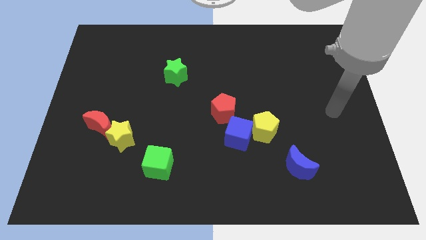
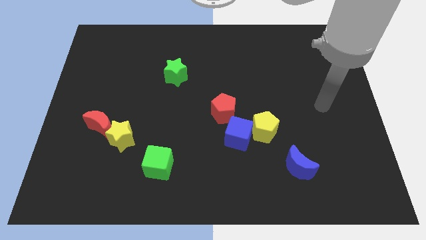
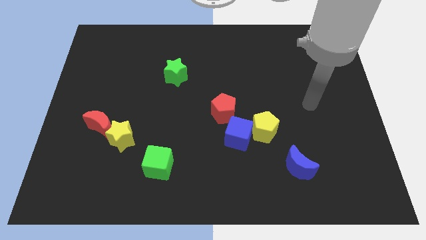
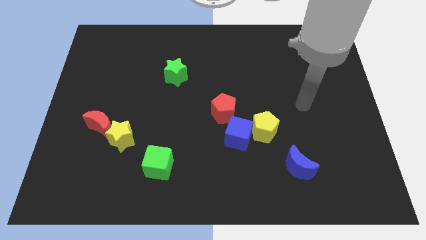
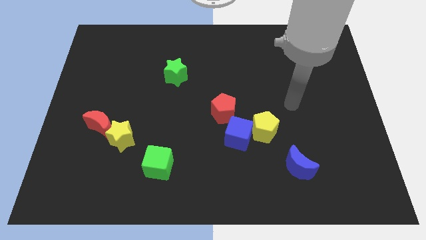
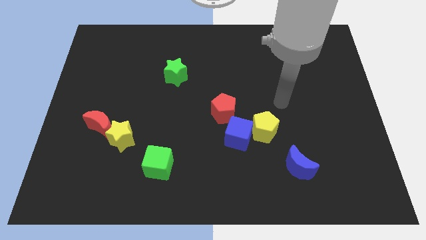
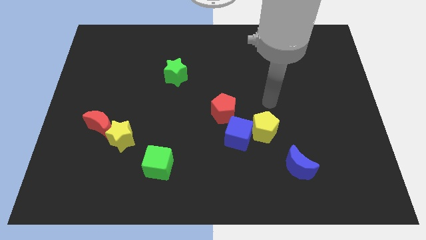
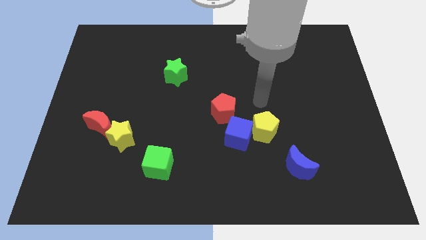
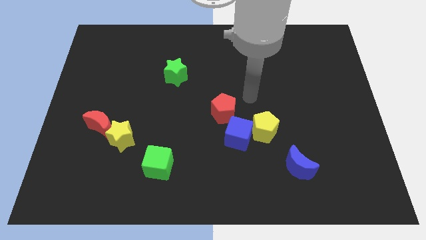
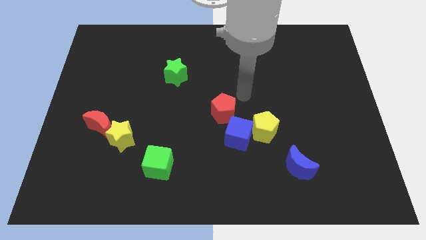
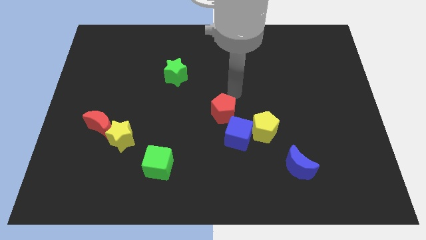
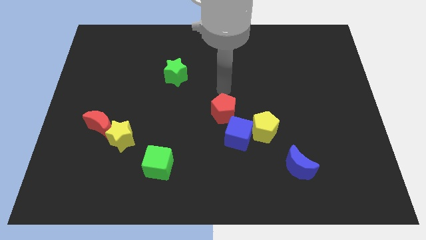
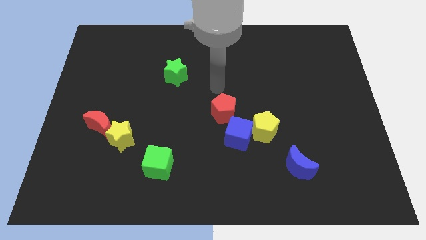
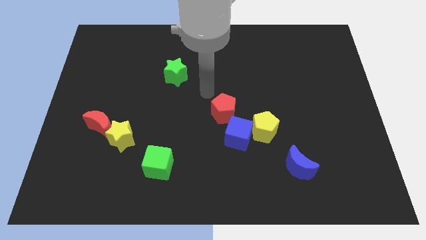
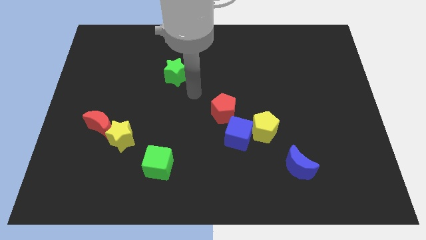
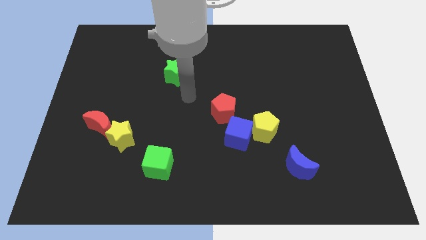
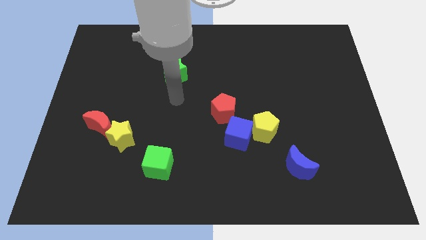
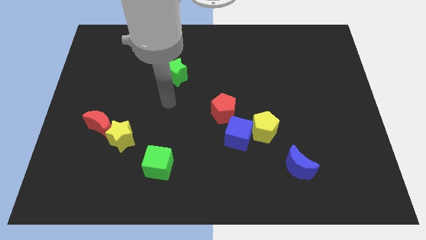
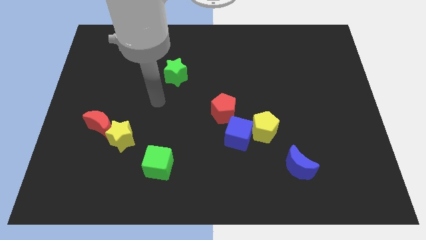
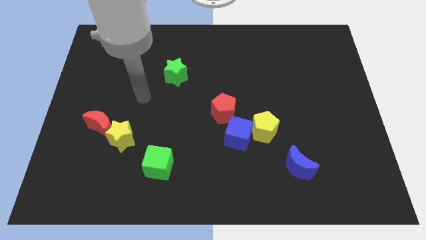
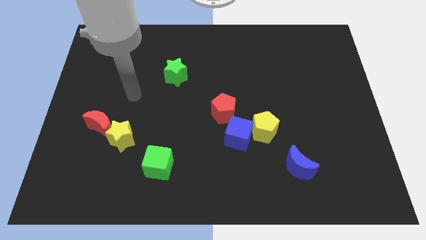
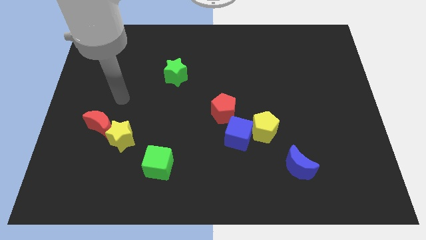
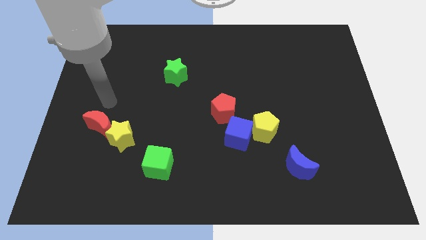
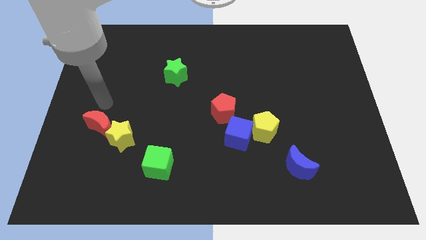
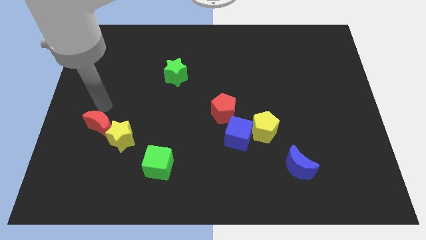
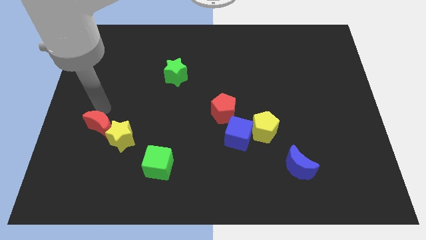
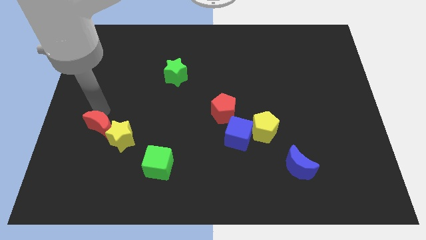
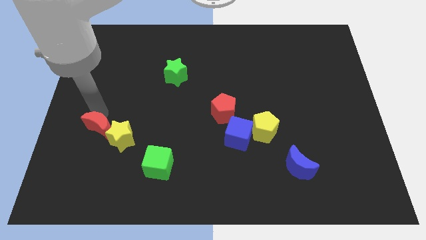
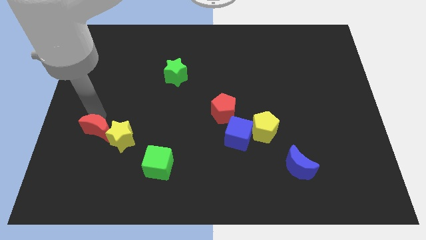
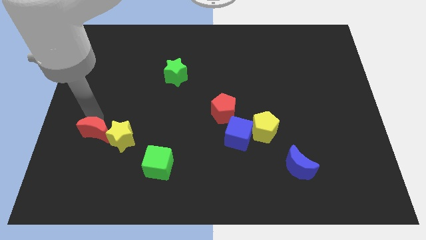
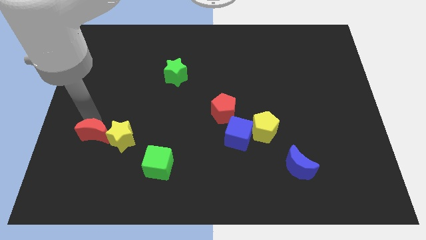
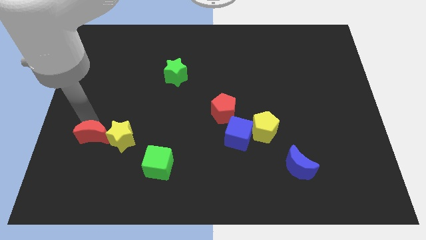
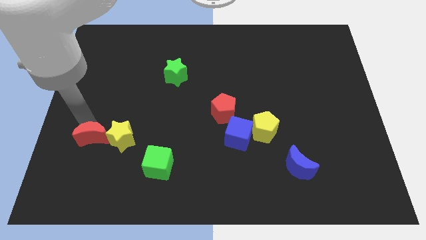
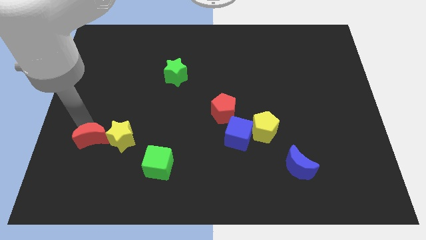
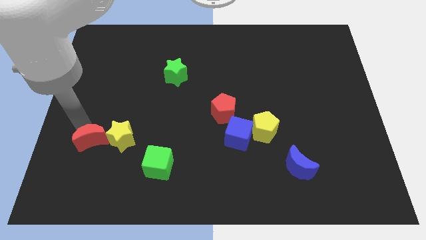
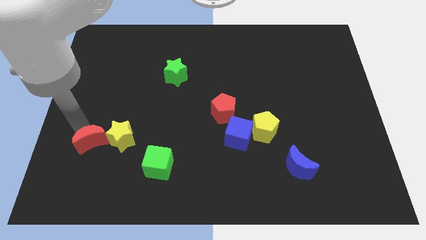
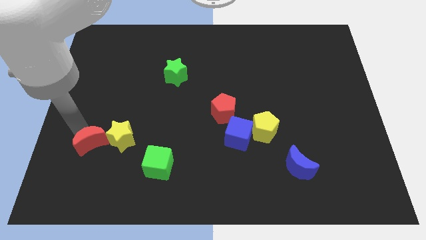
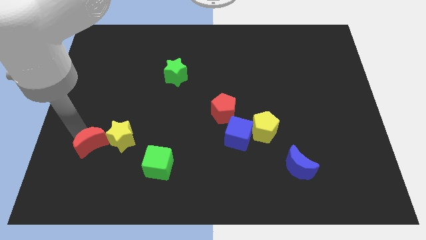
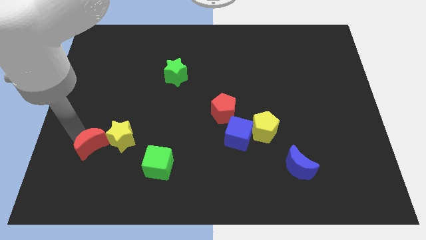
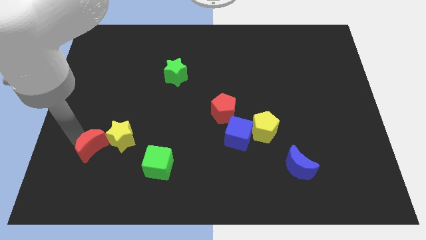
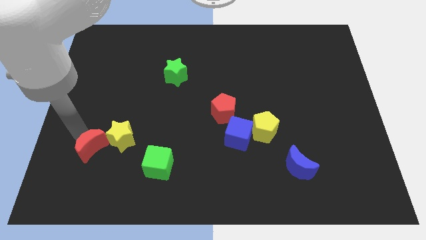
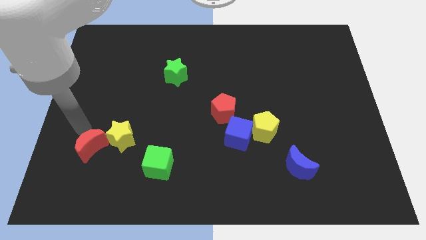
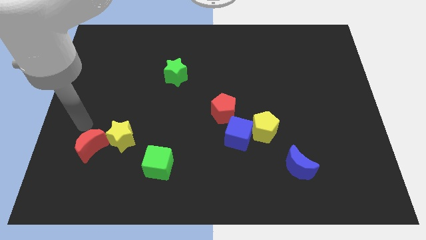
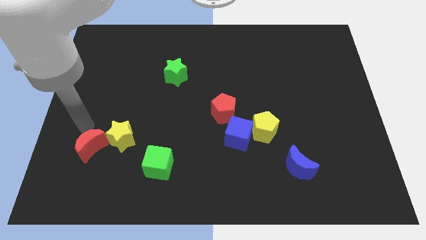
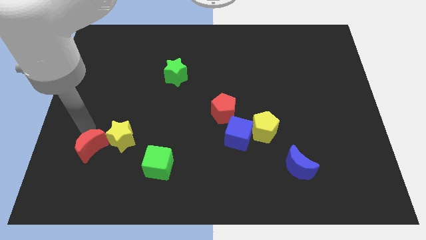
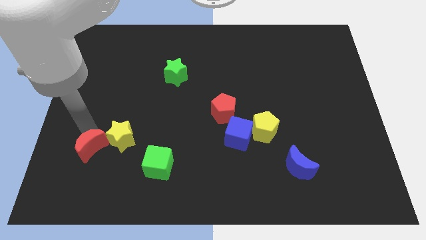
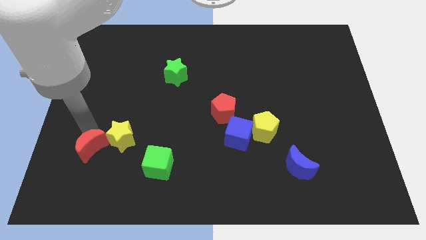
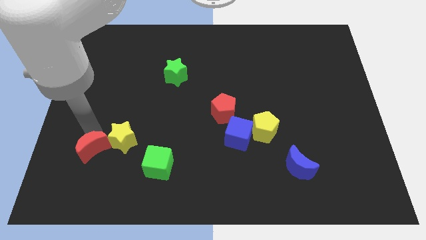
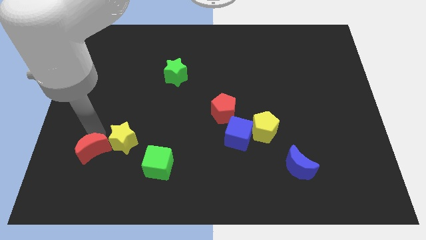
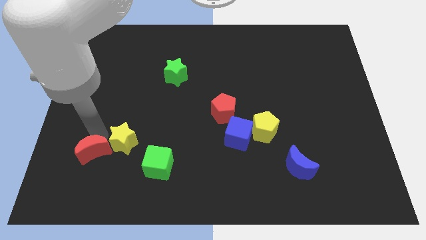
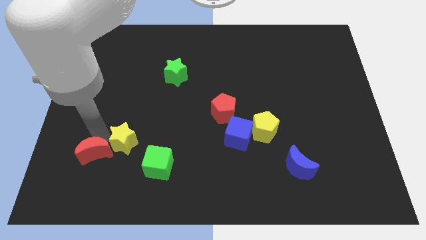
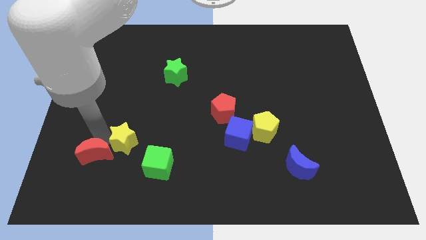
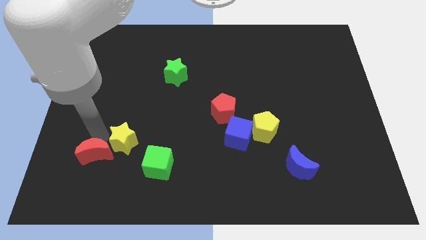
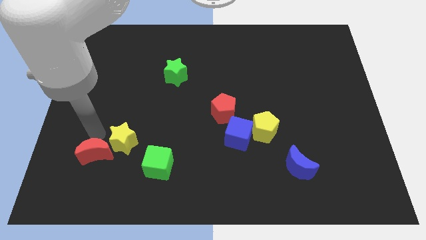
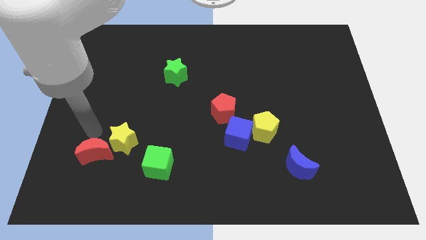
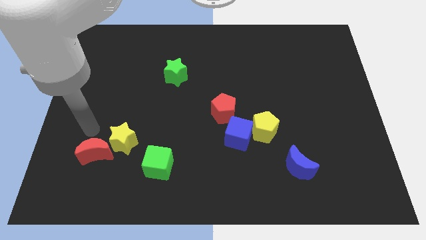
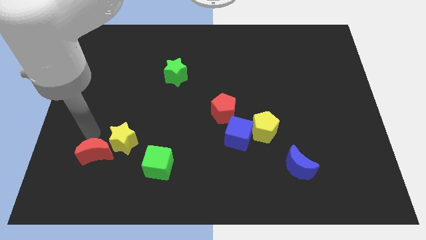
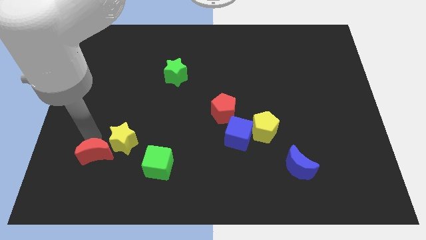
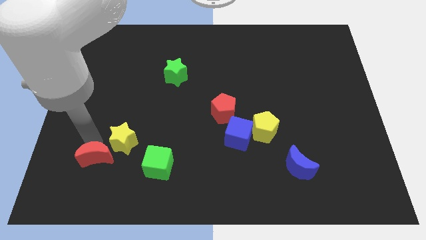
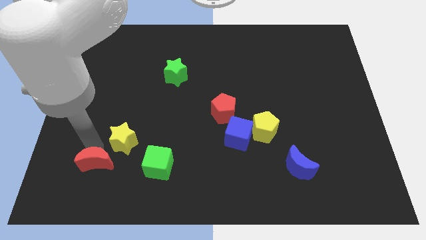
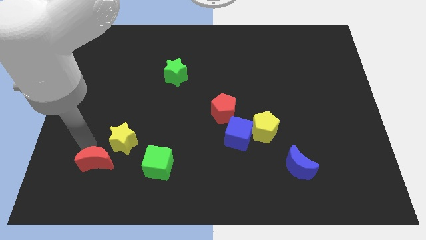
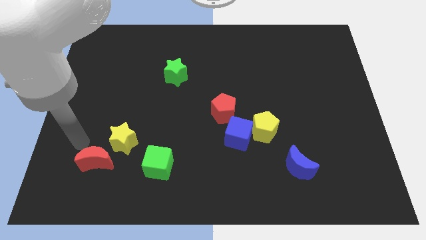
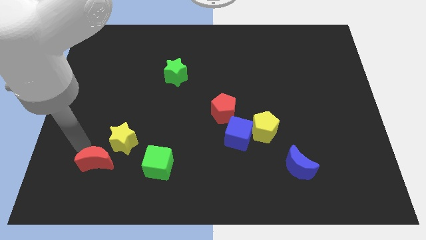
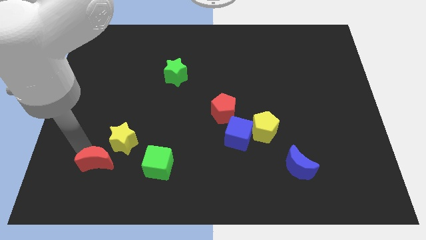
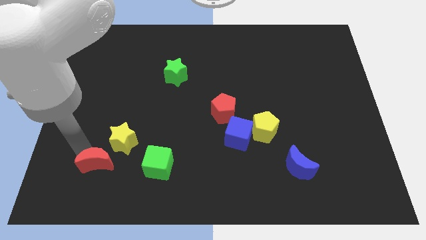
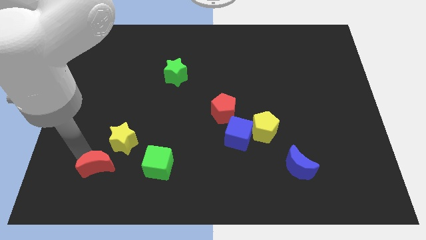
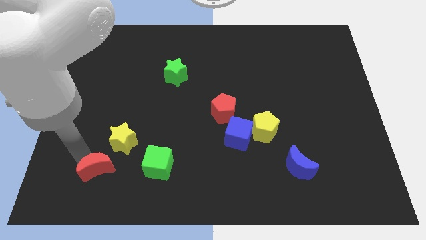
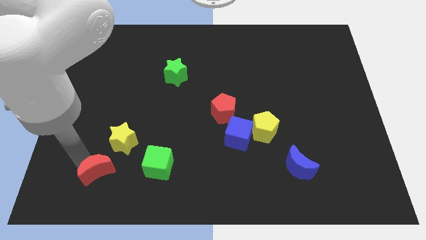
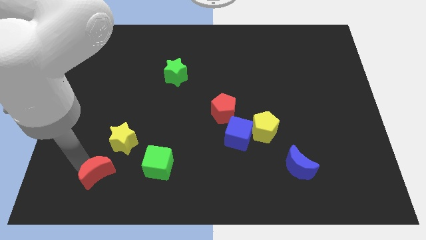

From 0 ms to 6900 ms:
push the red moon downwards and then to the right a bit

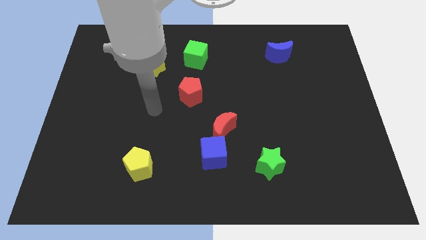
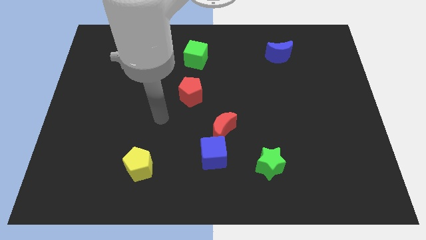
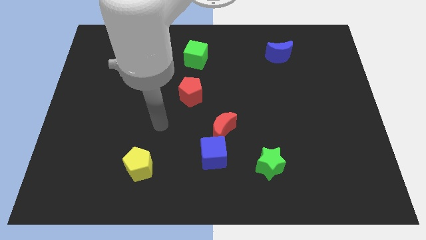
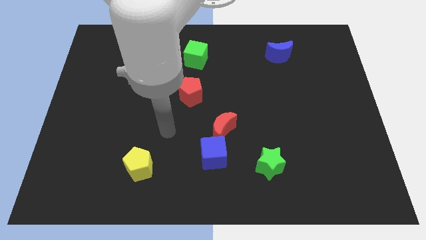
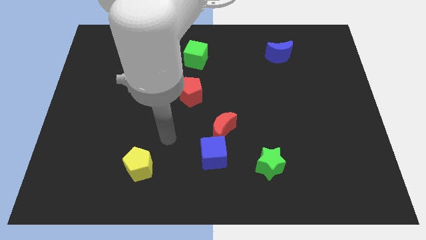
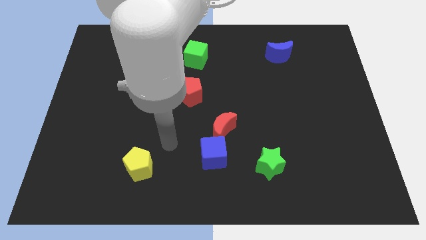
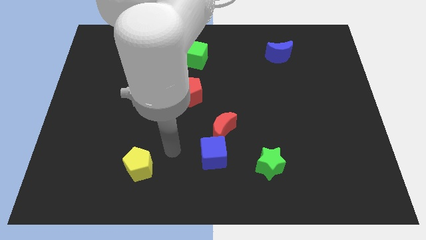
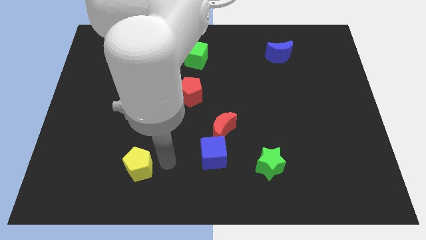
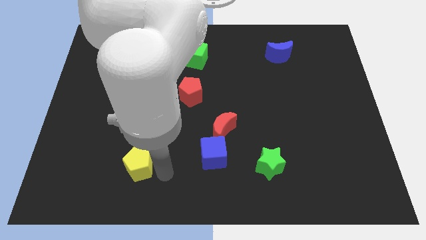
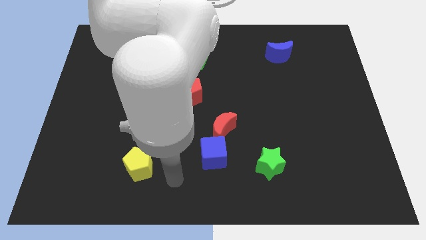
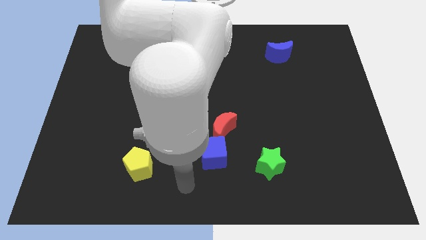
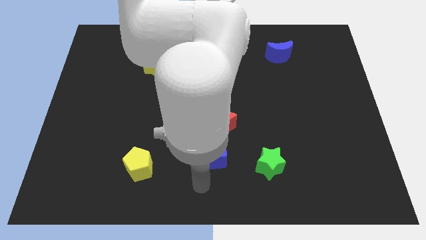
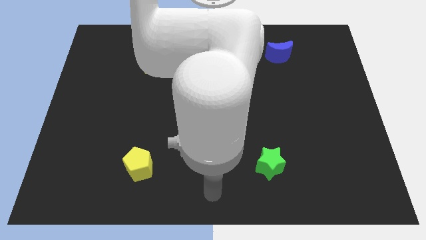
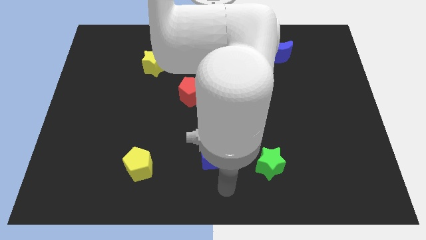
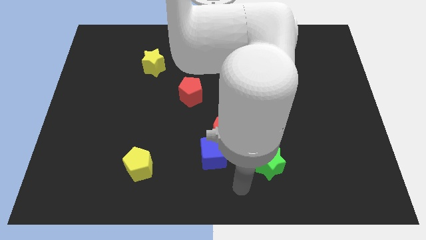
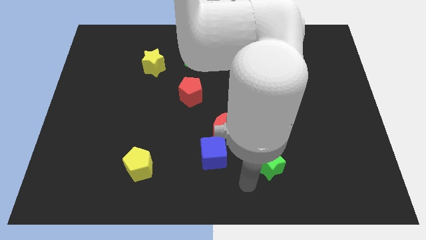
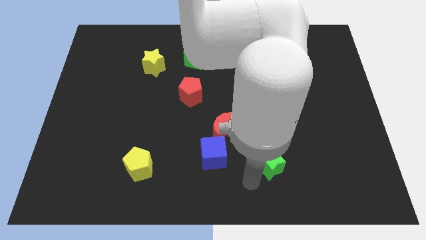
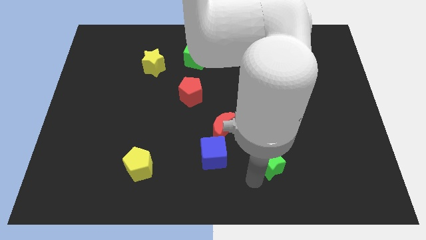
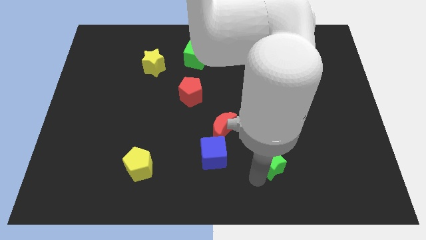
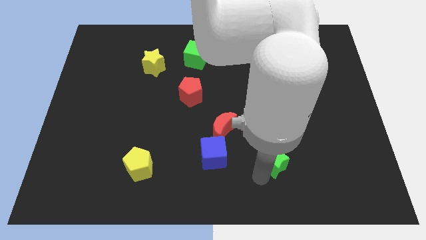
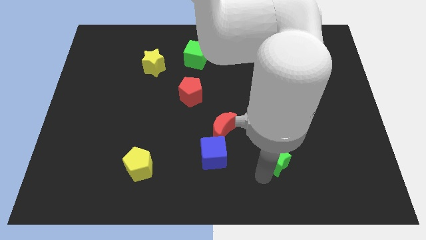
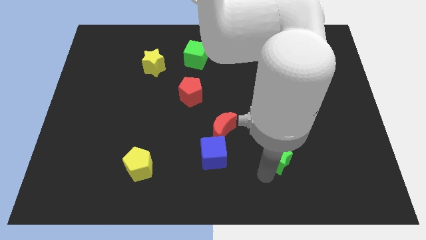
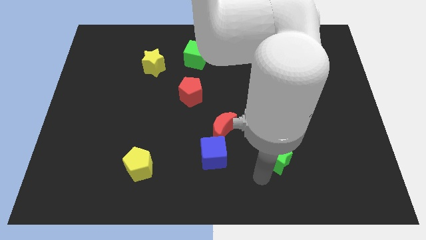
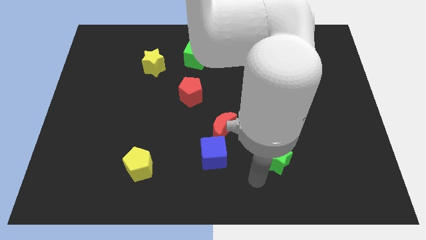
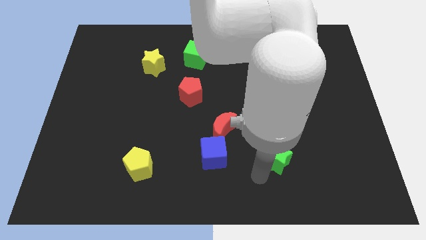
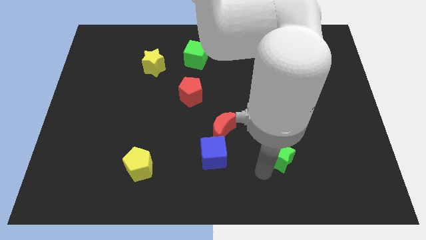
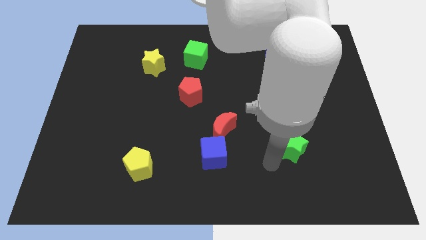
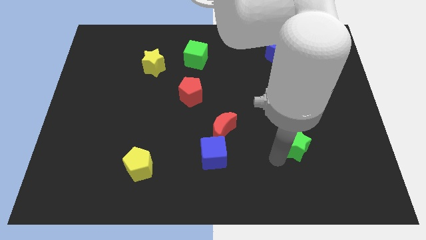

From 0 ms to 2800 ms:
slightly move the green star up and right diagonally
